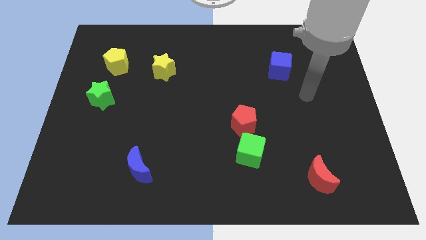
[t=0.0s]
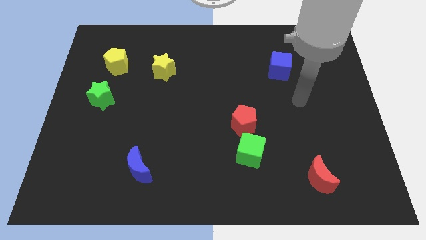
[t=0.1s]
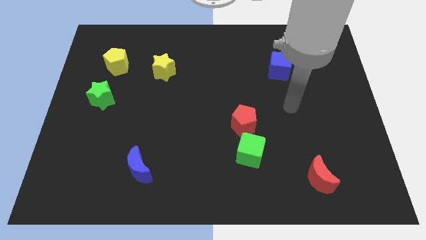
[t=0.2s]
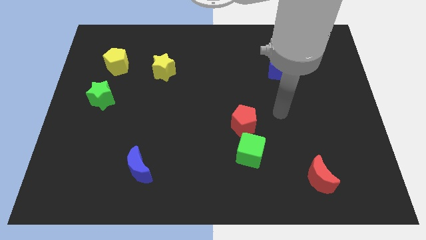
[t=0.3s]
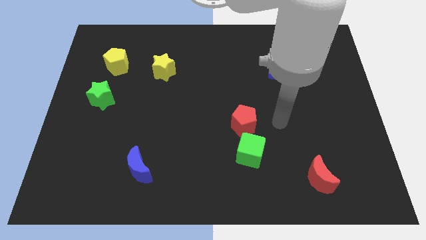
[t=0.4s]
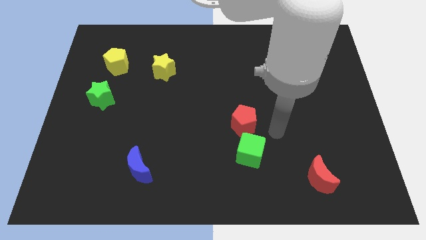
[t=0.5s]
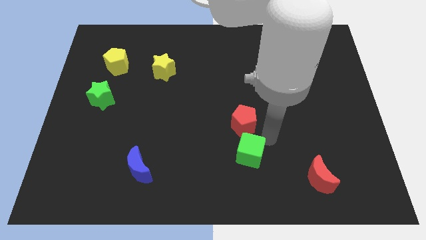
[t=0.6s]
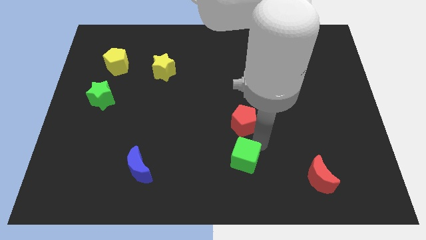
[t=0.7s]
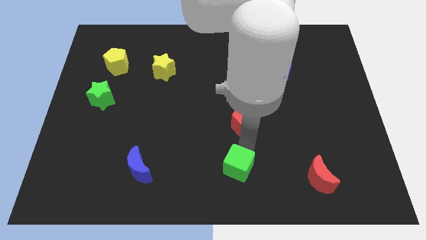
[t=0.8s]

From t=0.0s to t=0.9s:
pull the red pentagon apart from the green cube

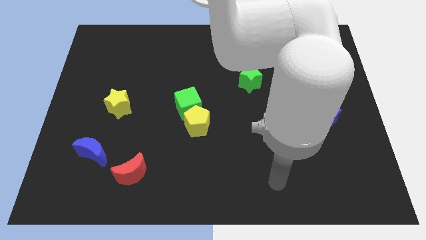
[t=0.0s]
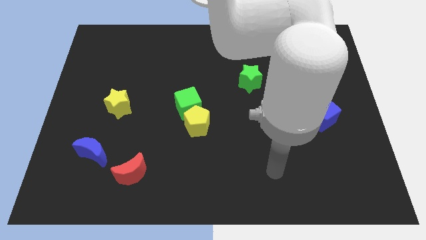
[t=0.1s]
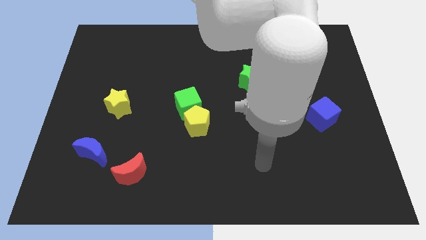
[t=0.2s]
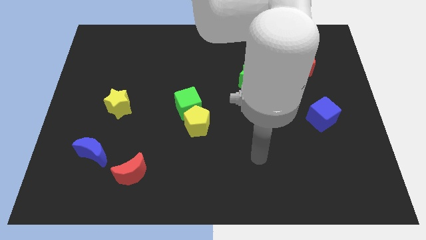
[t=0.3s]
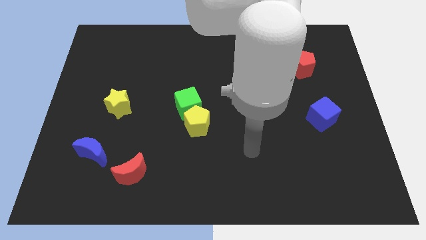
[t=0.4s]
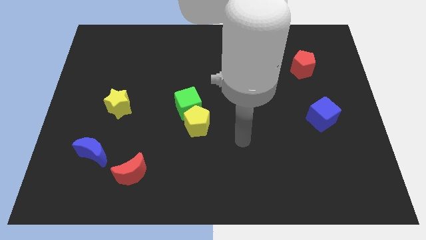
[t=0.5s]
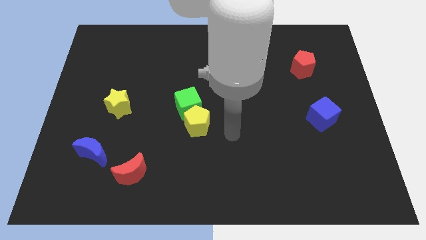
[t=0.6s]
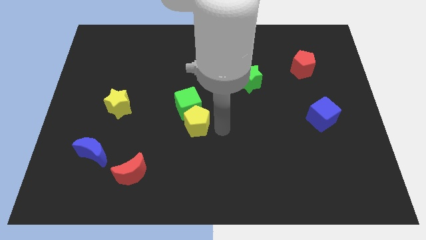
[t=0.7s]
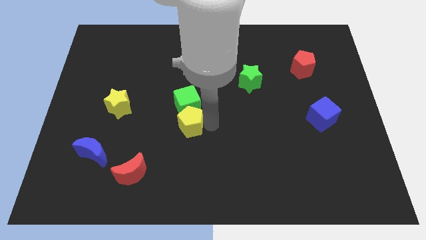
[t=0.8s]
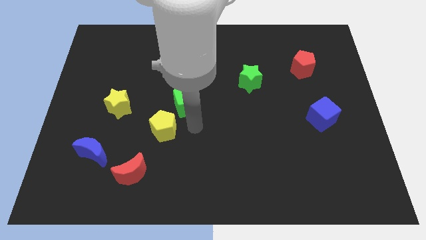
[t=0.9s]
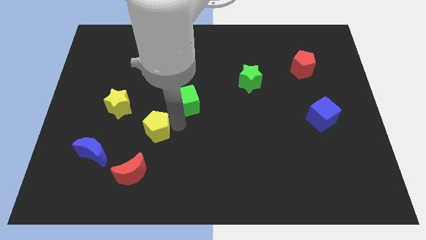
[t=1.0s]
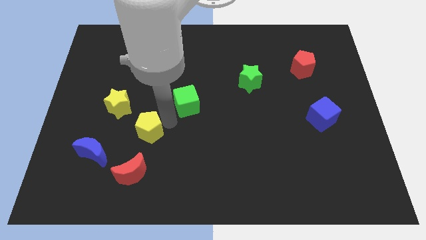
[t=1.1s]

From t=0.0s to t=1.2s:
separate the green cube from the yellow pentagon

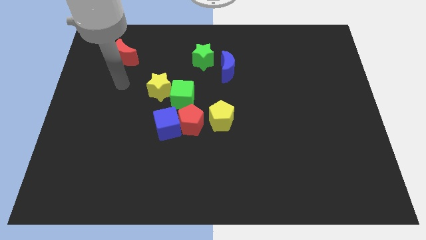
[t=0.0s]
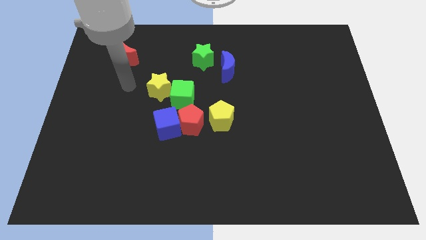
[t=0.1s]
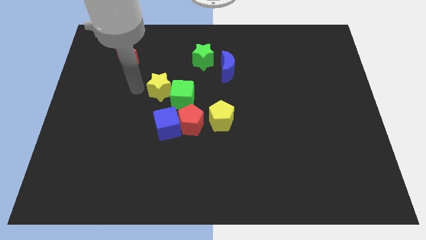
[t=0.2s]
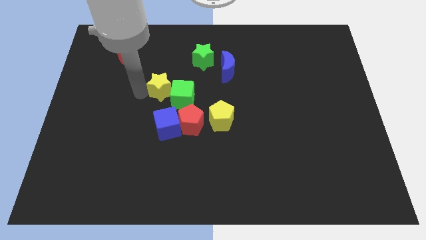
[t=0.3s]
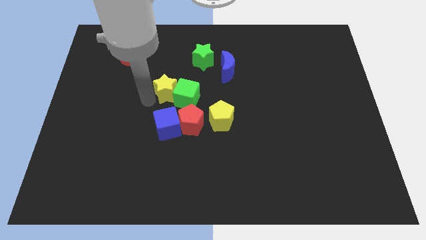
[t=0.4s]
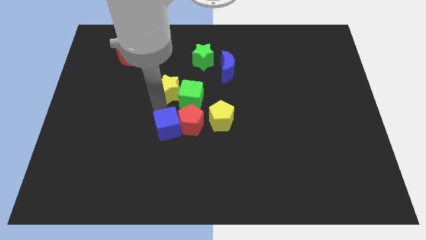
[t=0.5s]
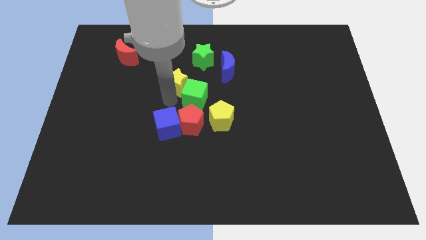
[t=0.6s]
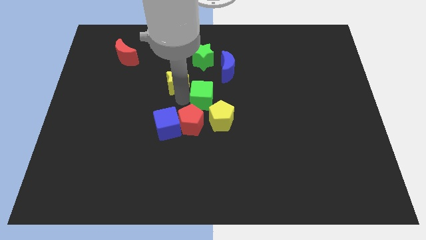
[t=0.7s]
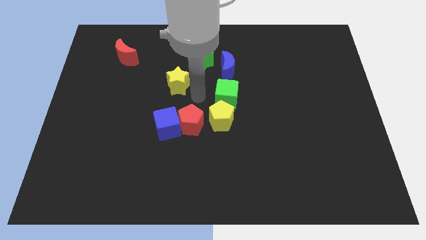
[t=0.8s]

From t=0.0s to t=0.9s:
pull the yellow star apart from the green cube

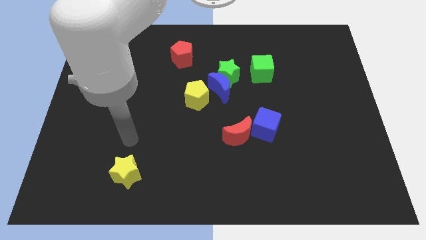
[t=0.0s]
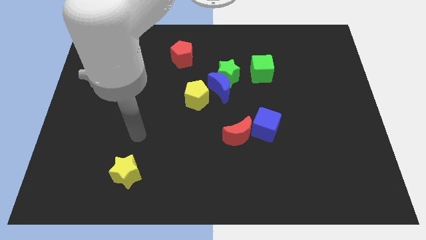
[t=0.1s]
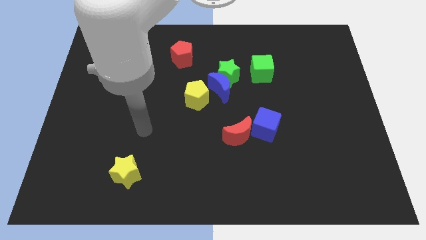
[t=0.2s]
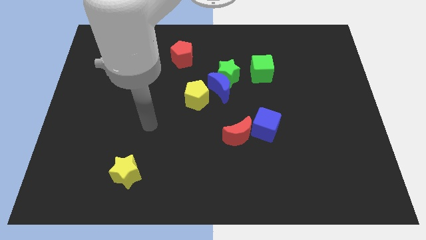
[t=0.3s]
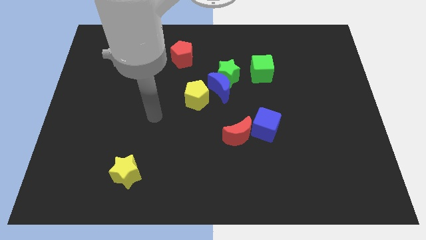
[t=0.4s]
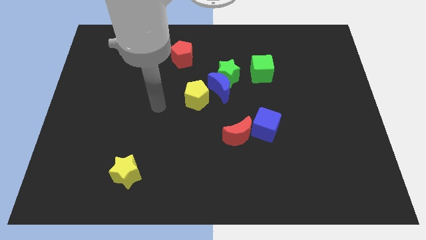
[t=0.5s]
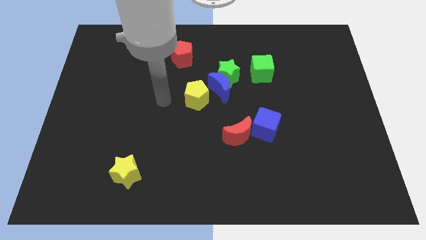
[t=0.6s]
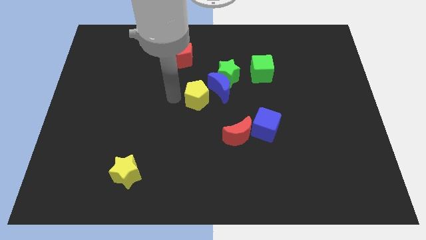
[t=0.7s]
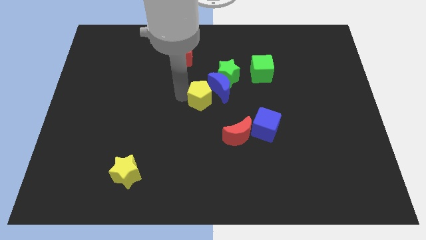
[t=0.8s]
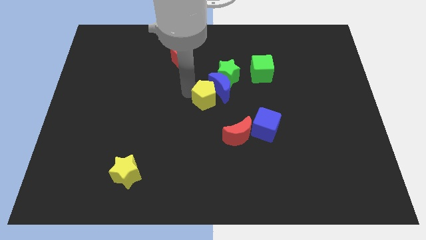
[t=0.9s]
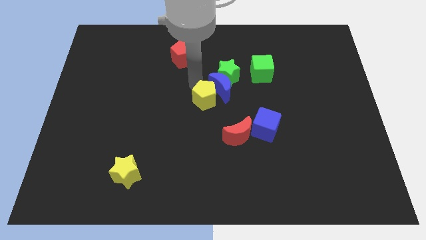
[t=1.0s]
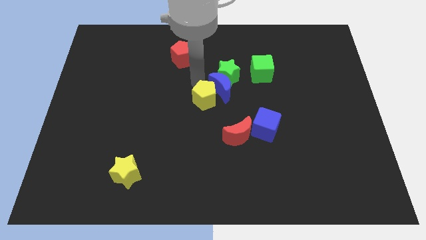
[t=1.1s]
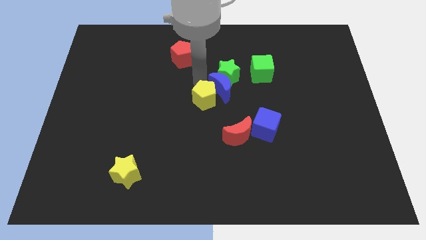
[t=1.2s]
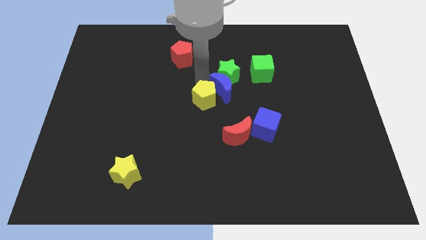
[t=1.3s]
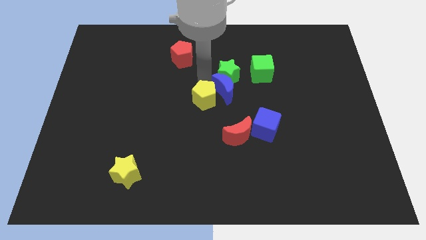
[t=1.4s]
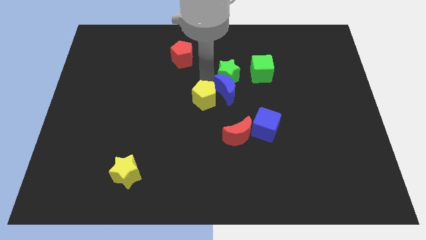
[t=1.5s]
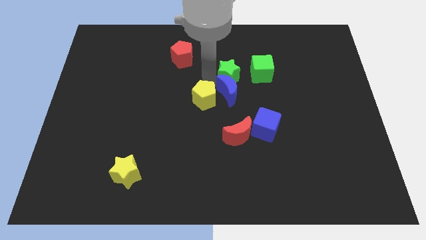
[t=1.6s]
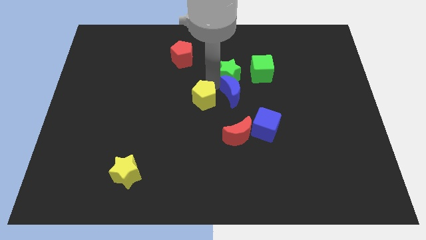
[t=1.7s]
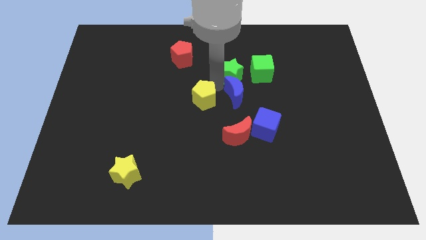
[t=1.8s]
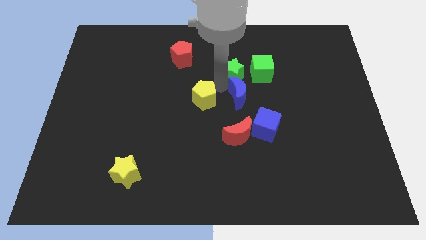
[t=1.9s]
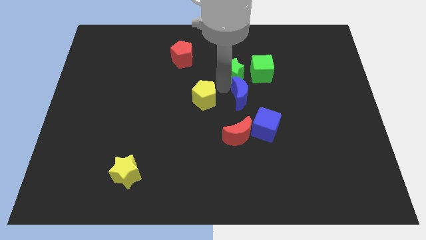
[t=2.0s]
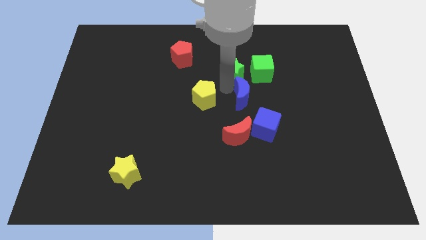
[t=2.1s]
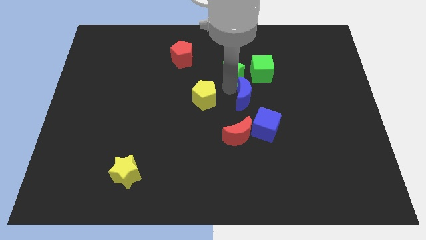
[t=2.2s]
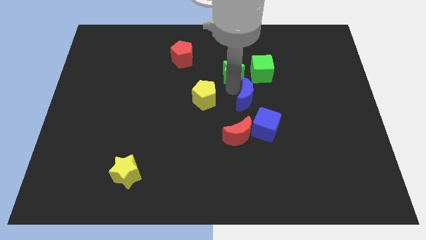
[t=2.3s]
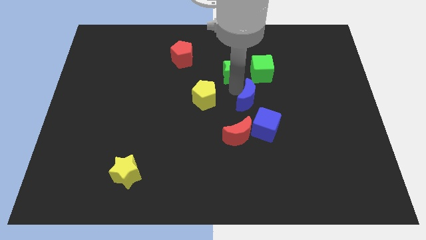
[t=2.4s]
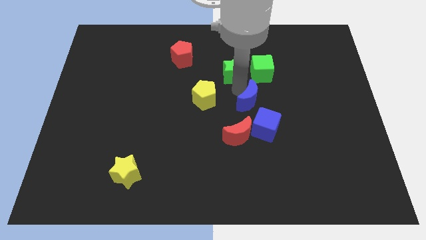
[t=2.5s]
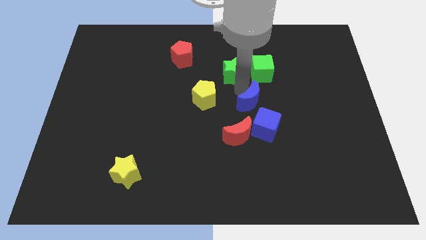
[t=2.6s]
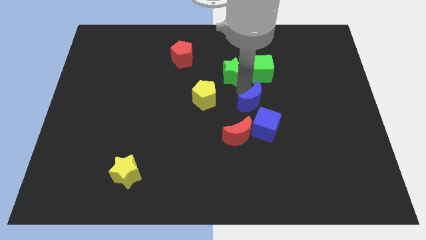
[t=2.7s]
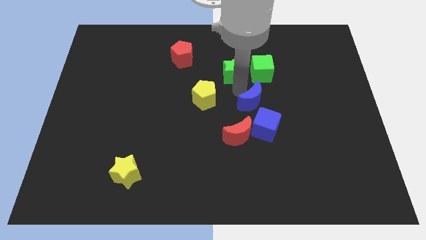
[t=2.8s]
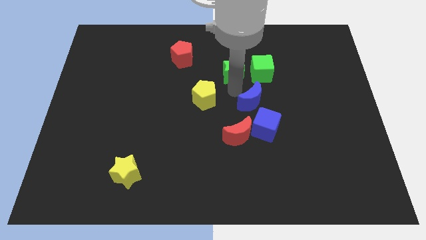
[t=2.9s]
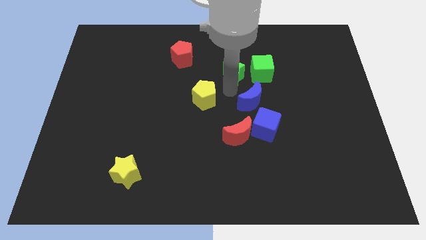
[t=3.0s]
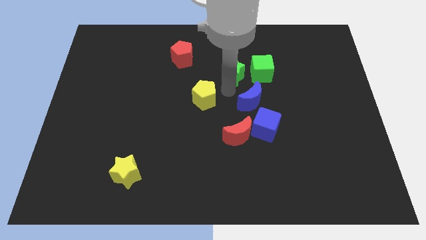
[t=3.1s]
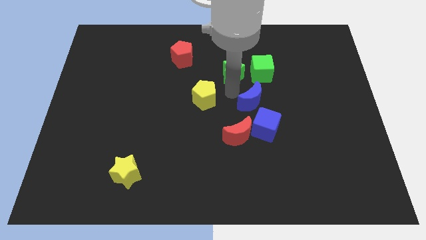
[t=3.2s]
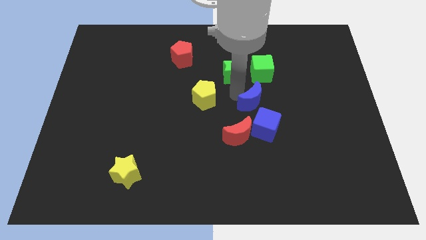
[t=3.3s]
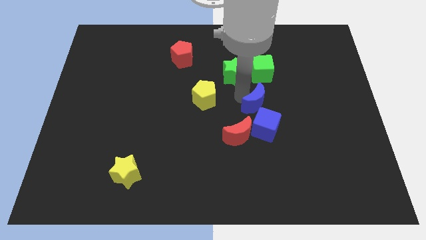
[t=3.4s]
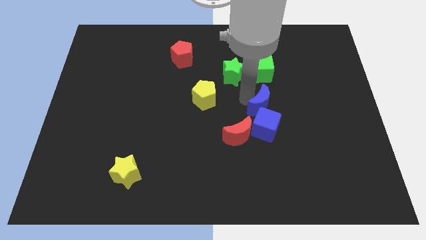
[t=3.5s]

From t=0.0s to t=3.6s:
separate the blue moon from the green star and yellow pentagon

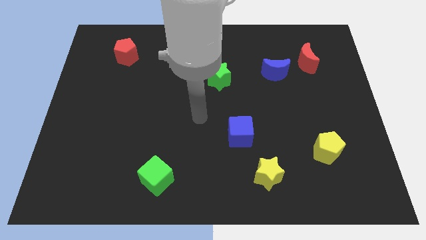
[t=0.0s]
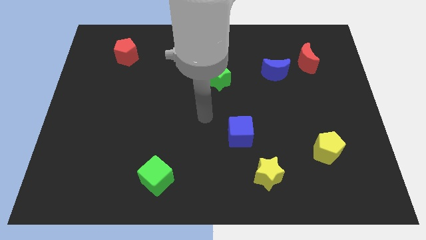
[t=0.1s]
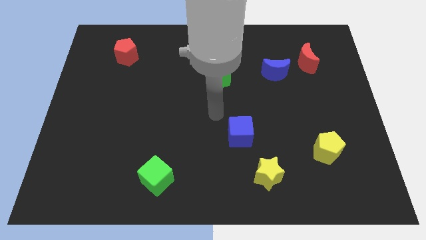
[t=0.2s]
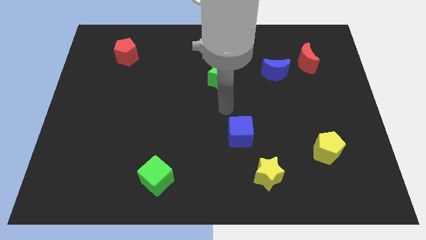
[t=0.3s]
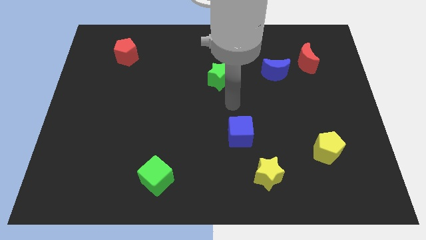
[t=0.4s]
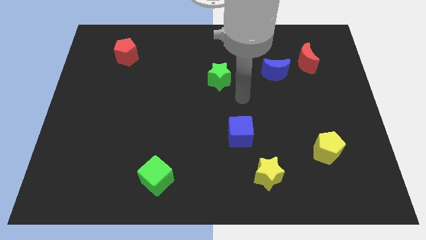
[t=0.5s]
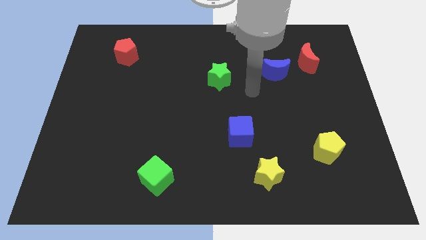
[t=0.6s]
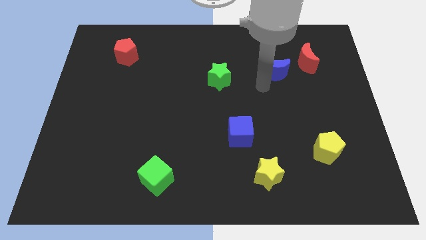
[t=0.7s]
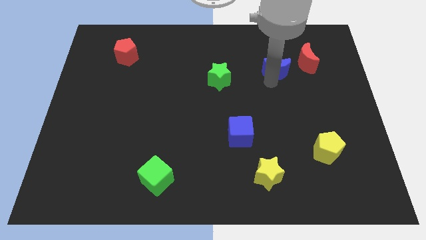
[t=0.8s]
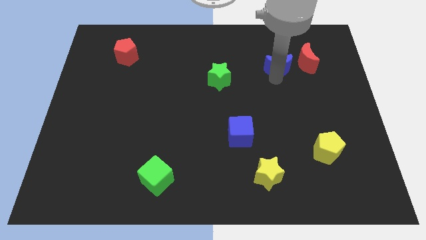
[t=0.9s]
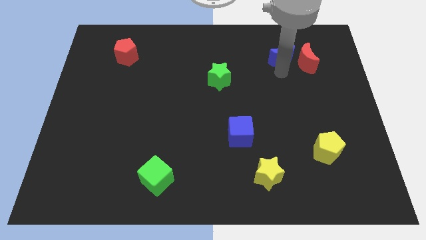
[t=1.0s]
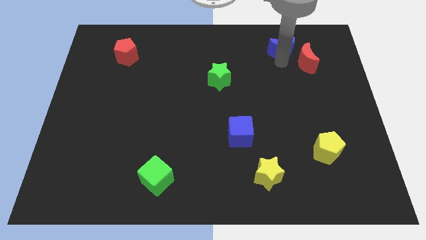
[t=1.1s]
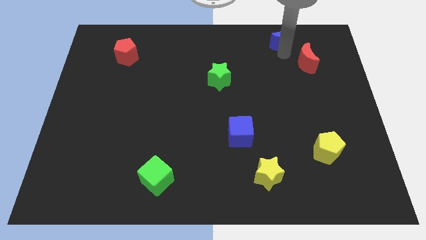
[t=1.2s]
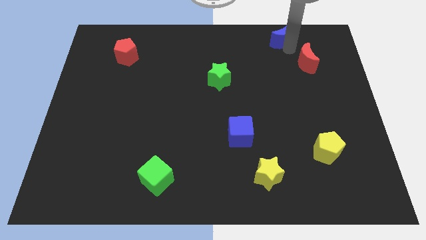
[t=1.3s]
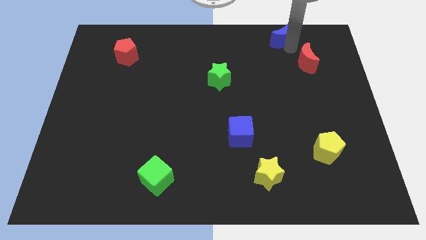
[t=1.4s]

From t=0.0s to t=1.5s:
separate the red moon from the blue moon

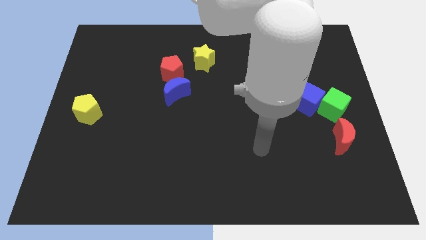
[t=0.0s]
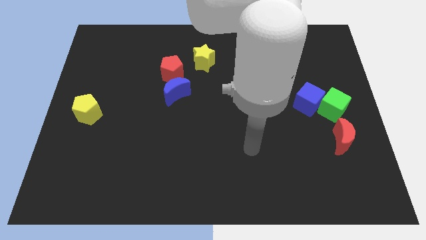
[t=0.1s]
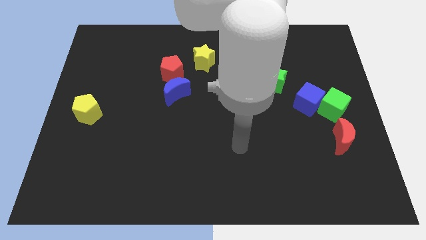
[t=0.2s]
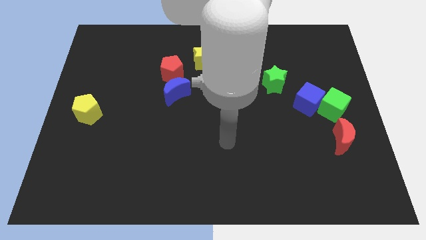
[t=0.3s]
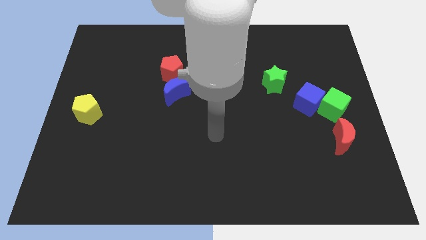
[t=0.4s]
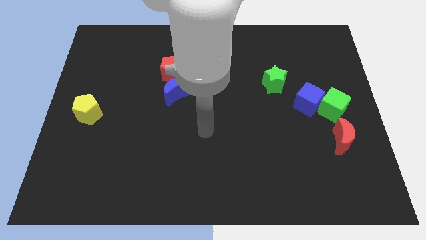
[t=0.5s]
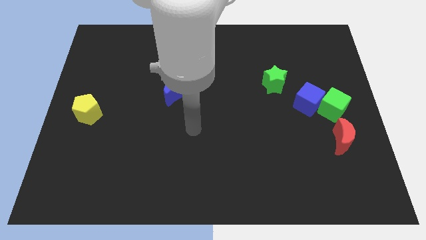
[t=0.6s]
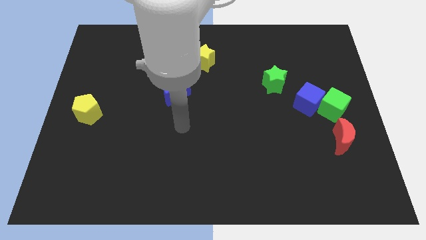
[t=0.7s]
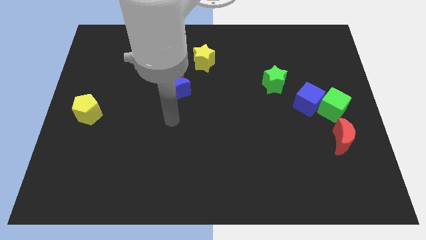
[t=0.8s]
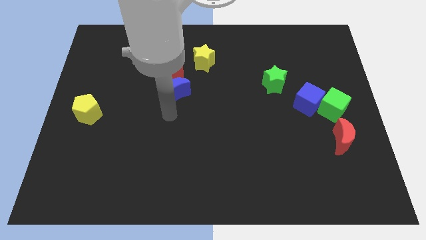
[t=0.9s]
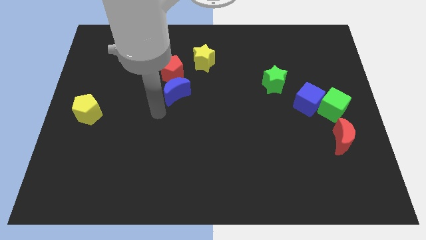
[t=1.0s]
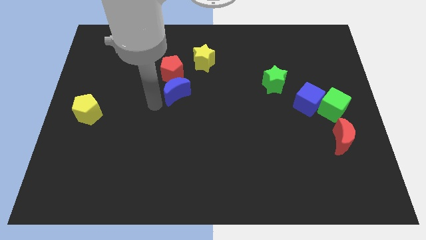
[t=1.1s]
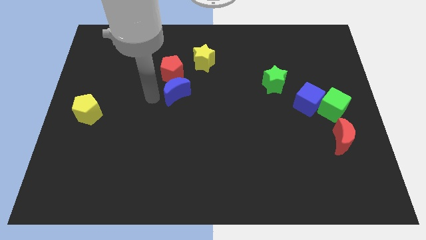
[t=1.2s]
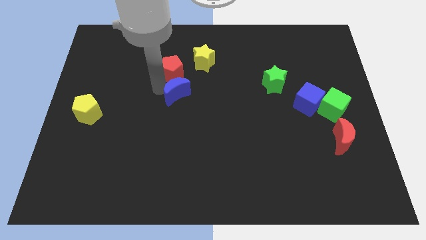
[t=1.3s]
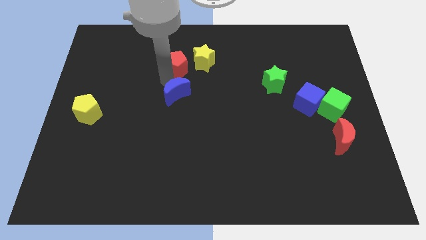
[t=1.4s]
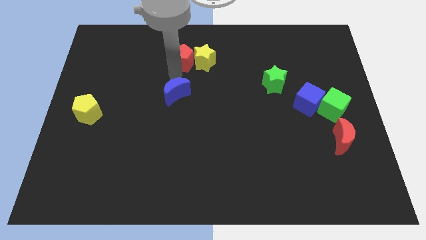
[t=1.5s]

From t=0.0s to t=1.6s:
separate the blue moon from the red pentagon
